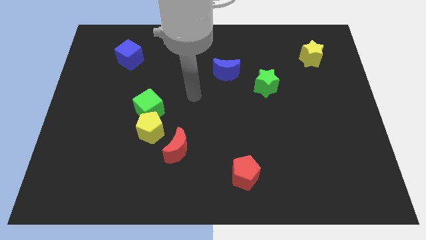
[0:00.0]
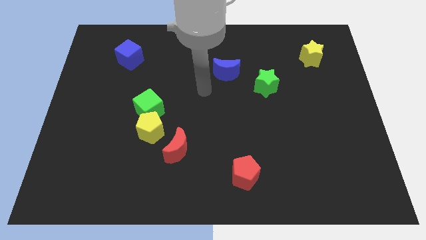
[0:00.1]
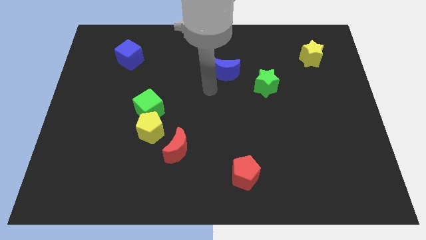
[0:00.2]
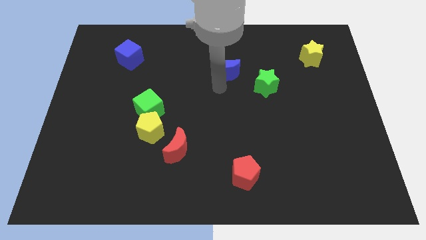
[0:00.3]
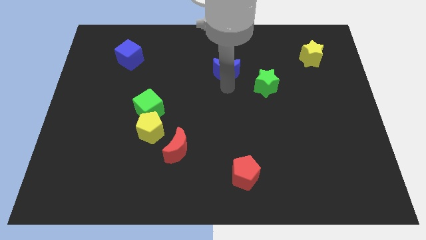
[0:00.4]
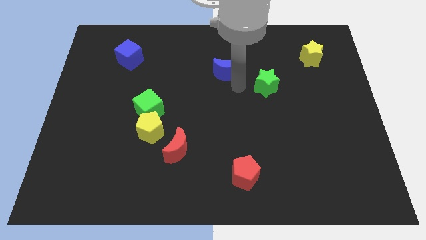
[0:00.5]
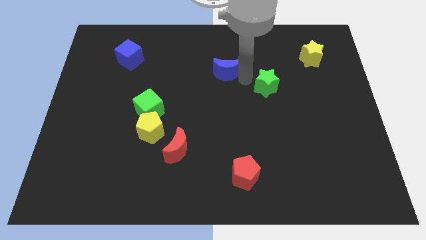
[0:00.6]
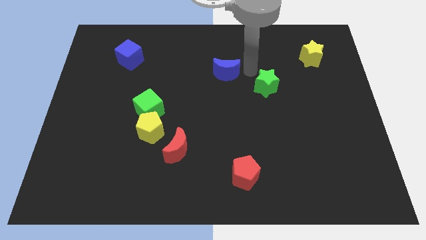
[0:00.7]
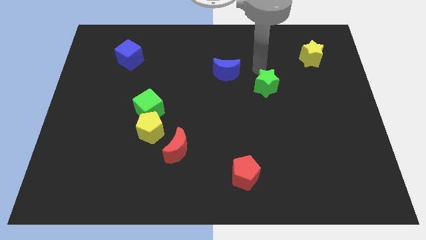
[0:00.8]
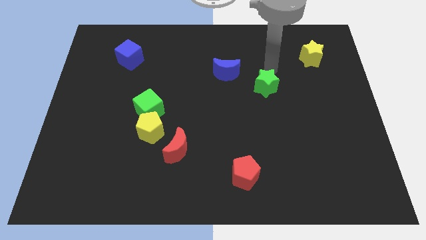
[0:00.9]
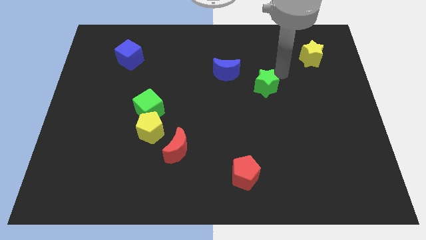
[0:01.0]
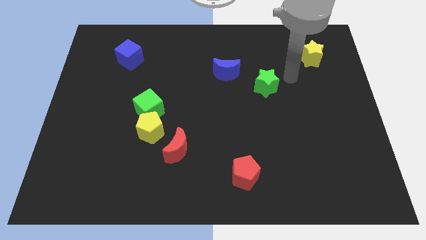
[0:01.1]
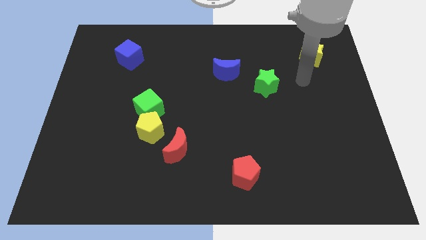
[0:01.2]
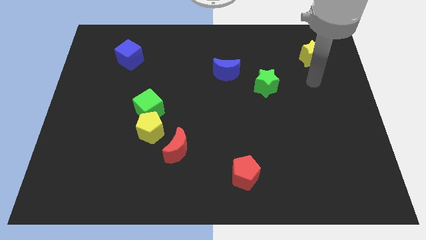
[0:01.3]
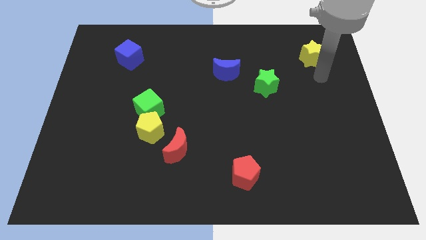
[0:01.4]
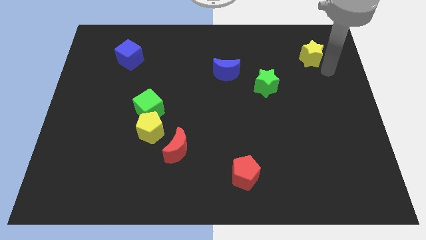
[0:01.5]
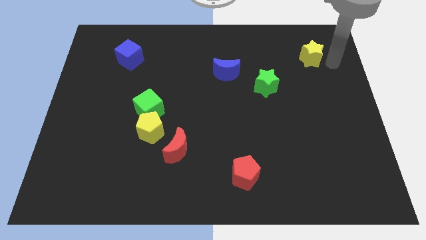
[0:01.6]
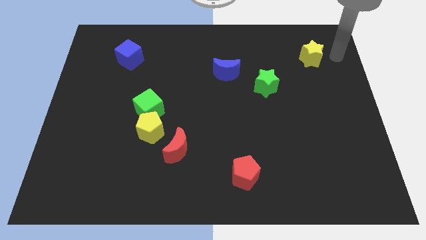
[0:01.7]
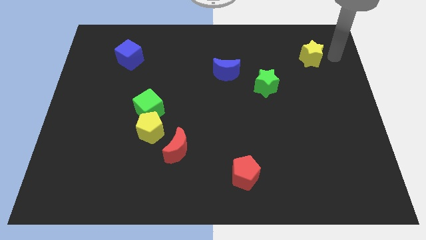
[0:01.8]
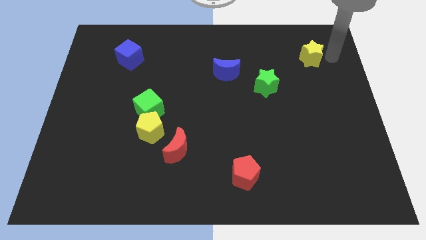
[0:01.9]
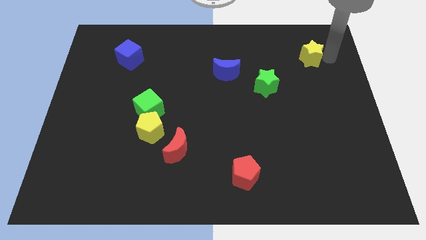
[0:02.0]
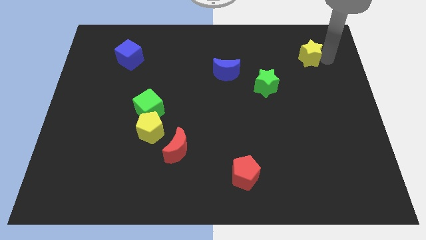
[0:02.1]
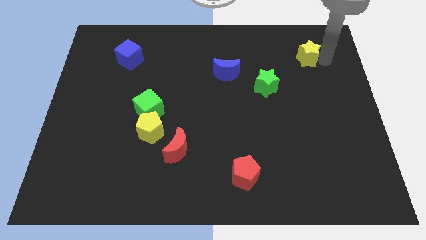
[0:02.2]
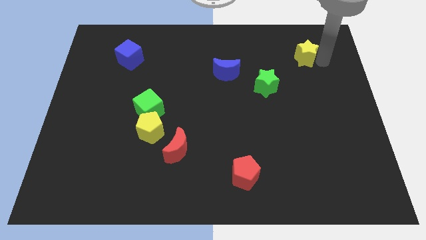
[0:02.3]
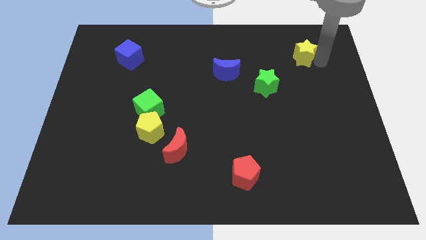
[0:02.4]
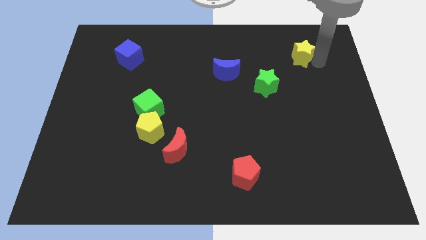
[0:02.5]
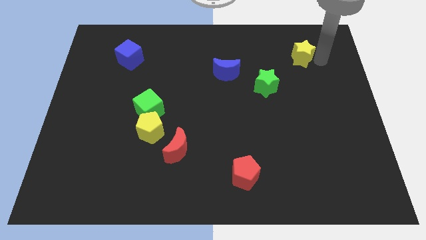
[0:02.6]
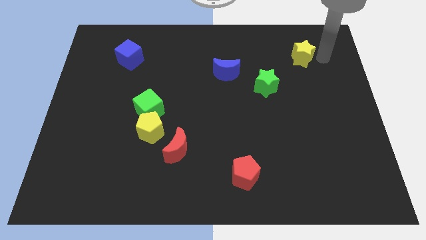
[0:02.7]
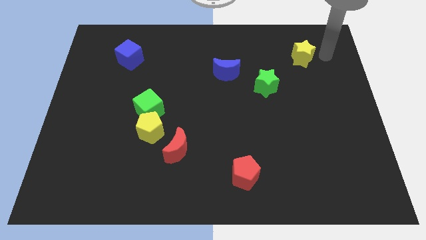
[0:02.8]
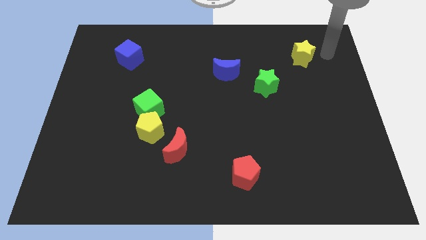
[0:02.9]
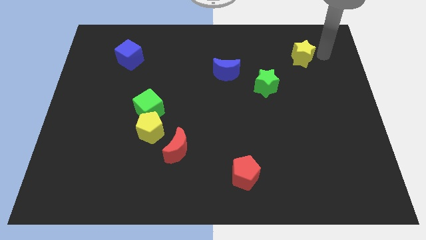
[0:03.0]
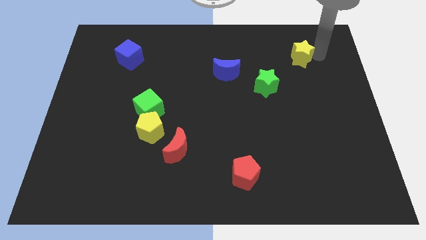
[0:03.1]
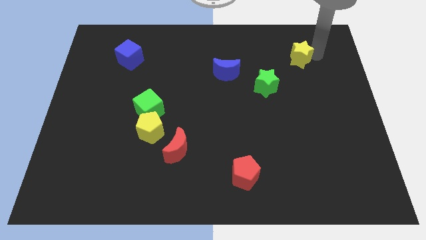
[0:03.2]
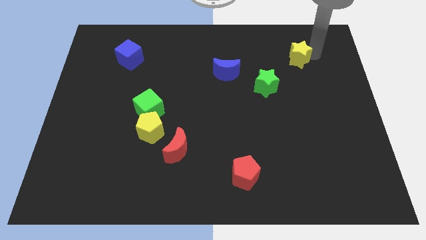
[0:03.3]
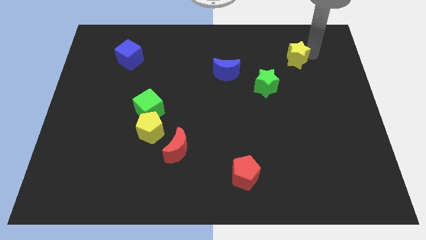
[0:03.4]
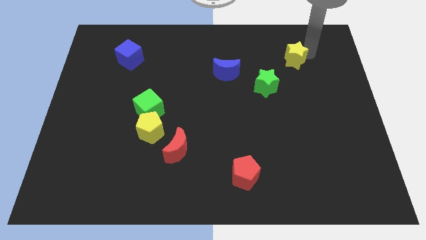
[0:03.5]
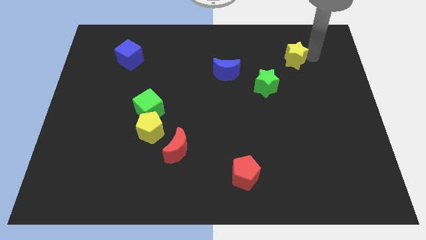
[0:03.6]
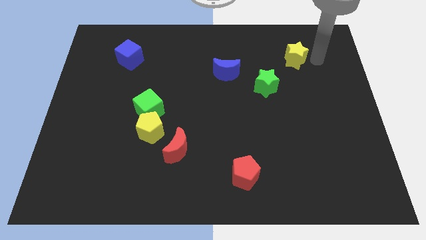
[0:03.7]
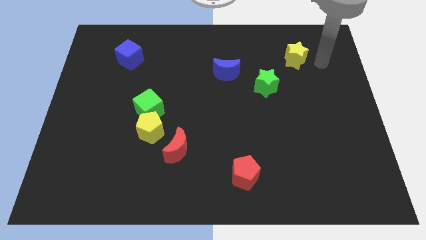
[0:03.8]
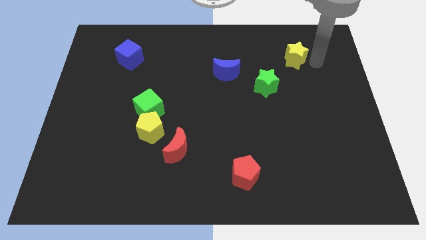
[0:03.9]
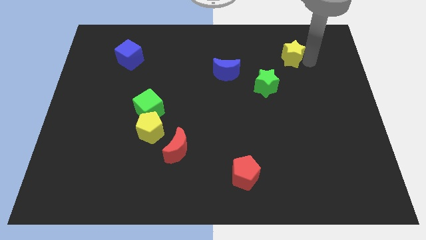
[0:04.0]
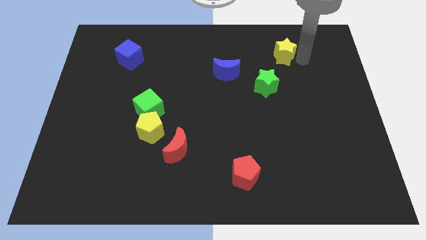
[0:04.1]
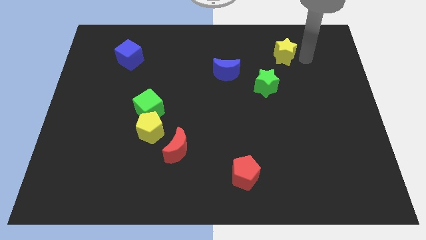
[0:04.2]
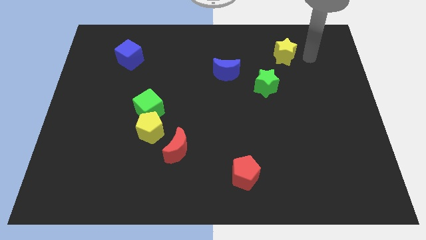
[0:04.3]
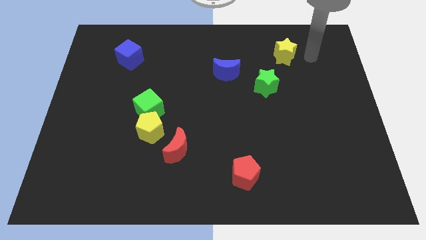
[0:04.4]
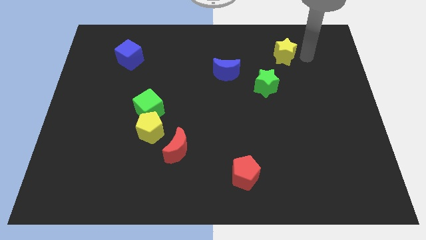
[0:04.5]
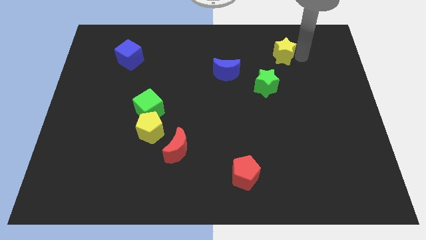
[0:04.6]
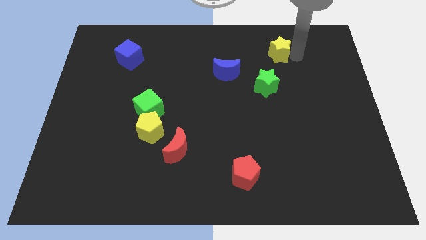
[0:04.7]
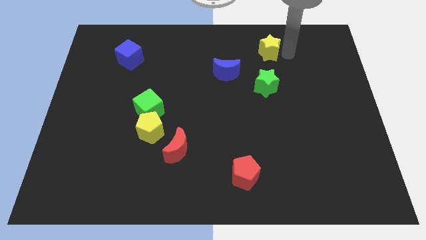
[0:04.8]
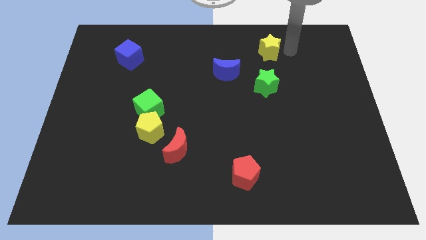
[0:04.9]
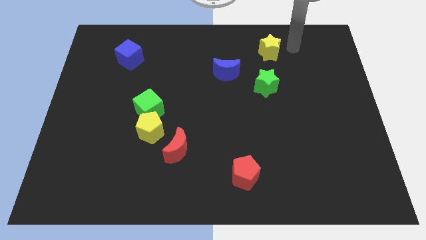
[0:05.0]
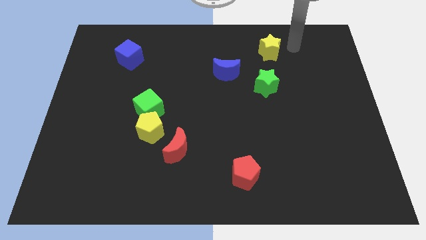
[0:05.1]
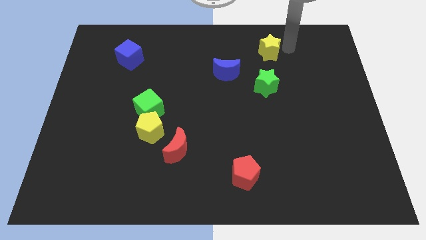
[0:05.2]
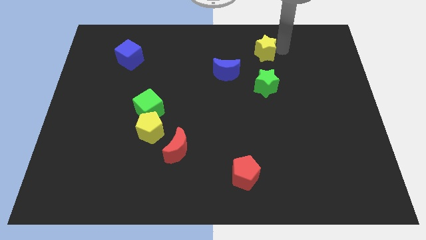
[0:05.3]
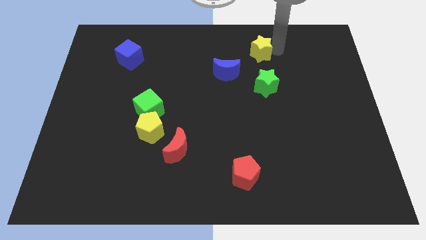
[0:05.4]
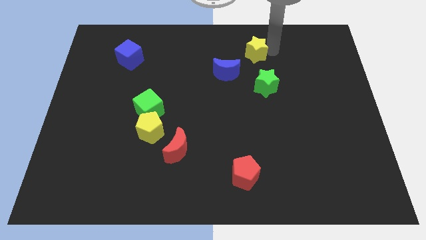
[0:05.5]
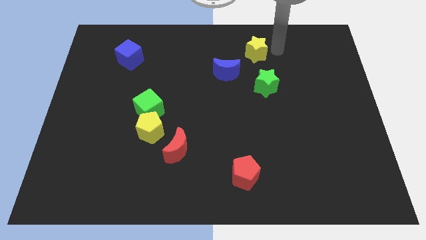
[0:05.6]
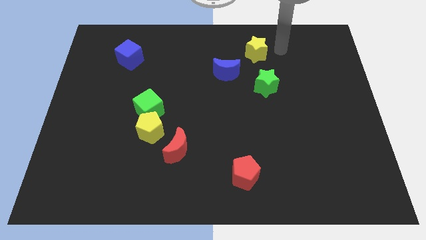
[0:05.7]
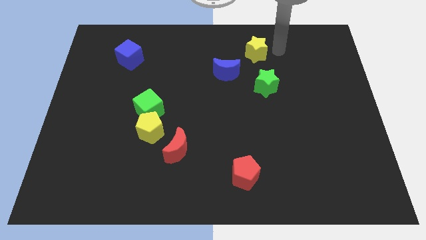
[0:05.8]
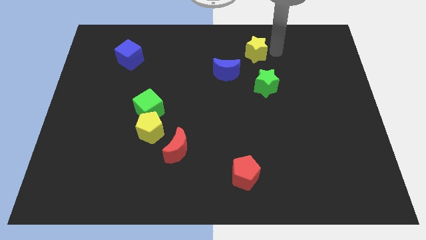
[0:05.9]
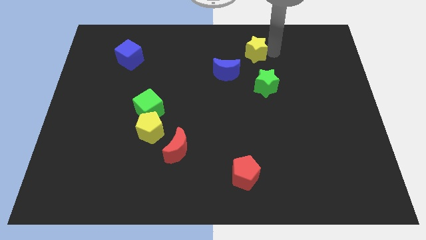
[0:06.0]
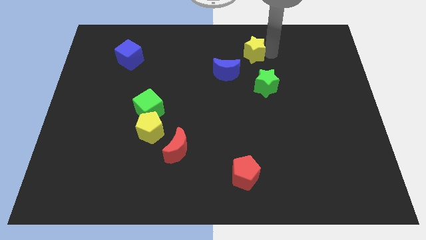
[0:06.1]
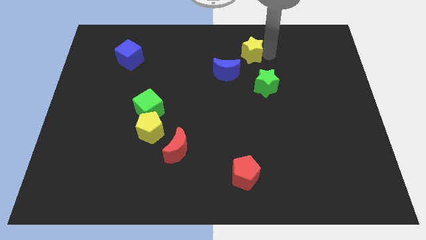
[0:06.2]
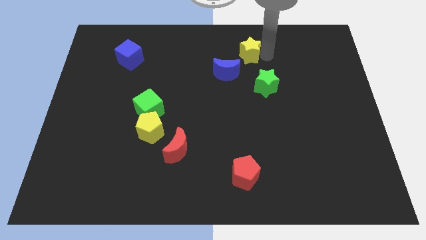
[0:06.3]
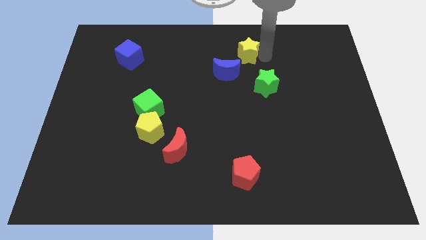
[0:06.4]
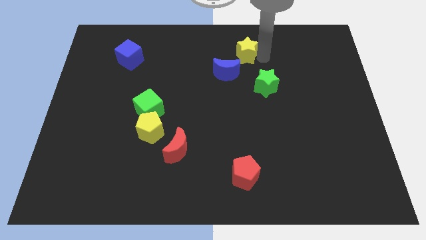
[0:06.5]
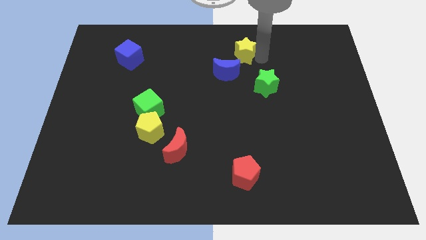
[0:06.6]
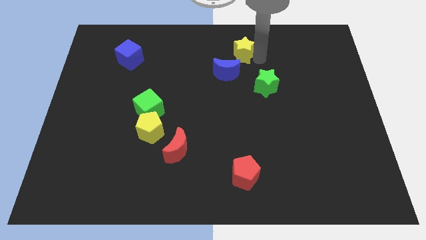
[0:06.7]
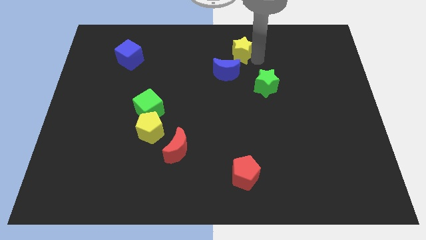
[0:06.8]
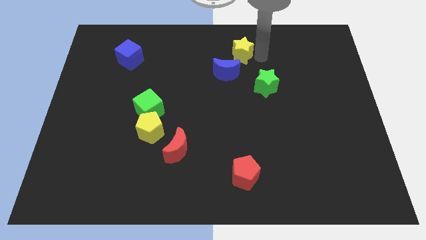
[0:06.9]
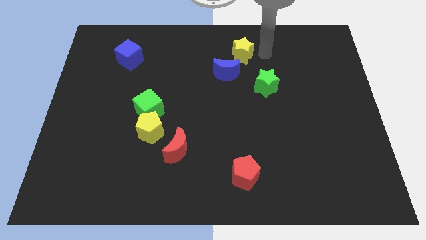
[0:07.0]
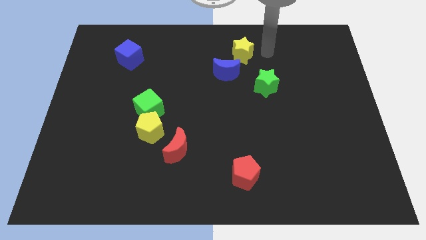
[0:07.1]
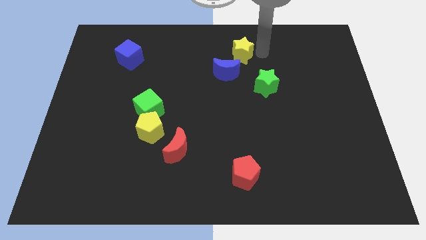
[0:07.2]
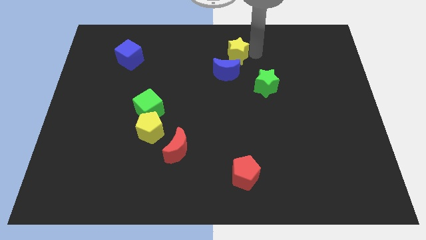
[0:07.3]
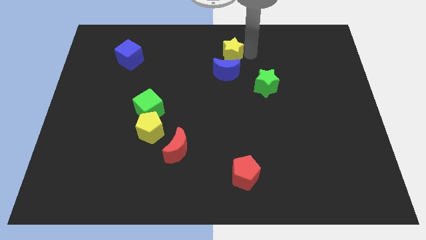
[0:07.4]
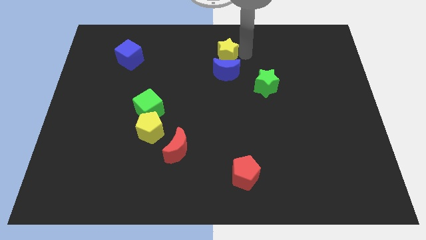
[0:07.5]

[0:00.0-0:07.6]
move the yellow star diagonally up and to the left of the blue moon

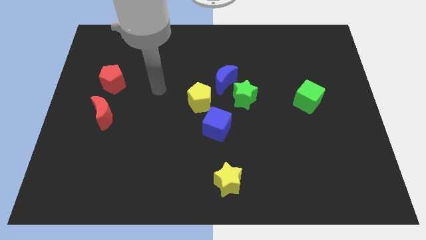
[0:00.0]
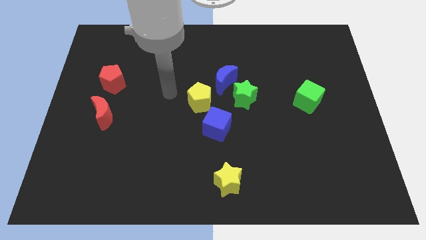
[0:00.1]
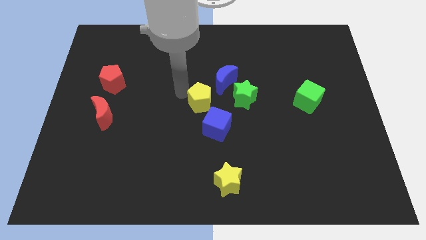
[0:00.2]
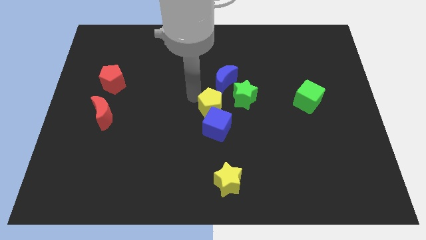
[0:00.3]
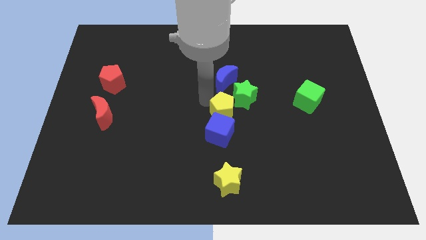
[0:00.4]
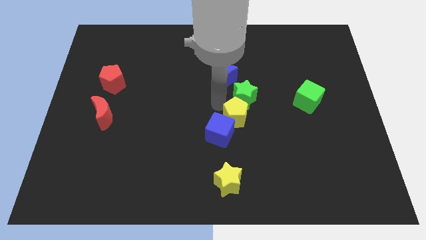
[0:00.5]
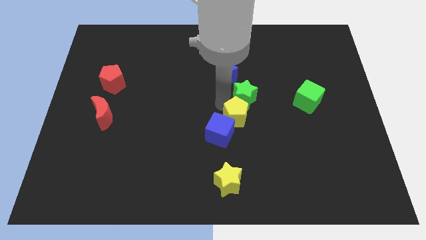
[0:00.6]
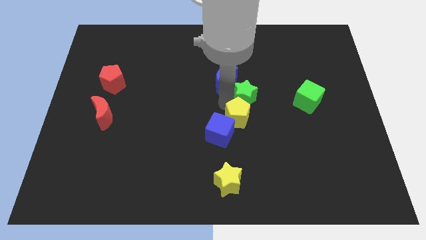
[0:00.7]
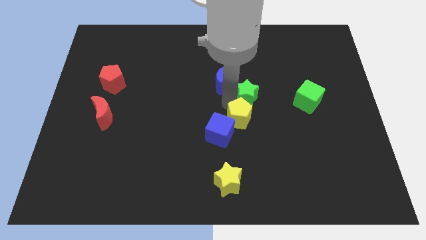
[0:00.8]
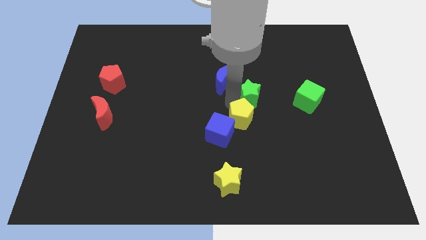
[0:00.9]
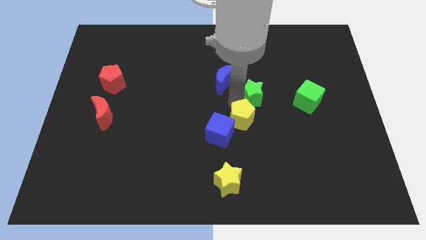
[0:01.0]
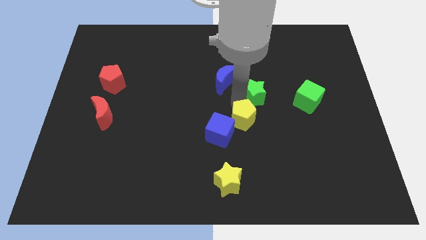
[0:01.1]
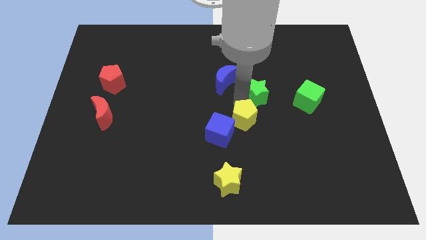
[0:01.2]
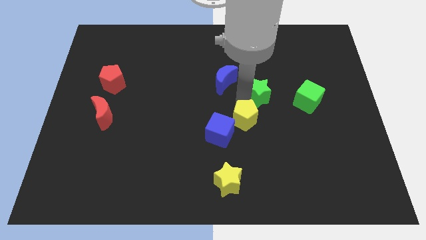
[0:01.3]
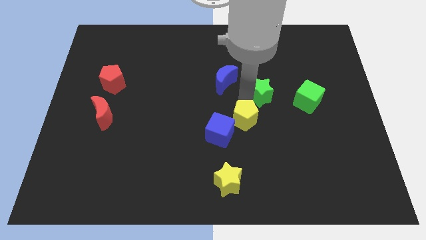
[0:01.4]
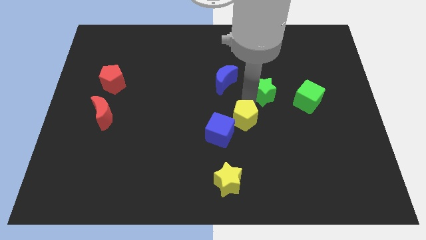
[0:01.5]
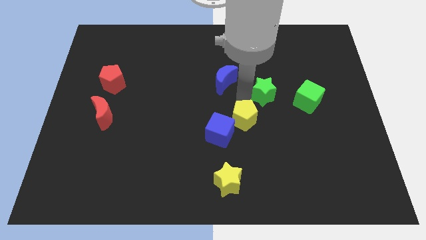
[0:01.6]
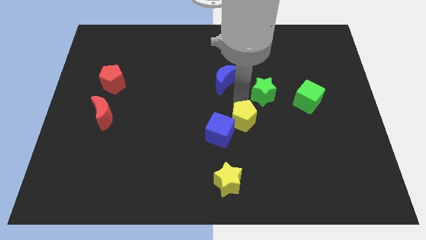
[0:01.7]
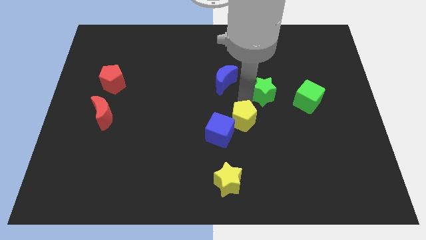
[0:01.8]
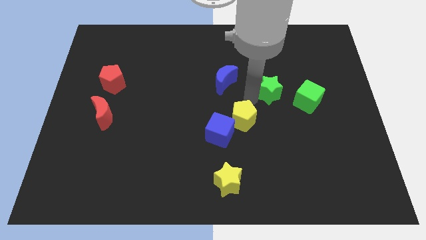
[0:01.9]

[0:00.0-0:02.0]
move the green star to the top left of the green cube
